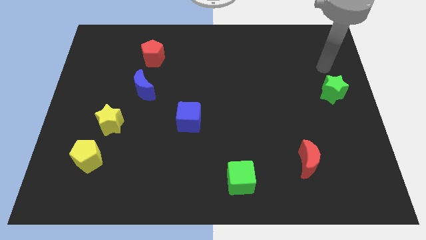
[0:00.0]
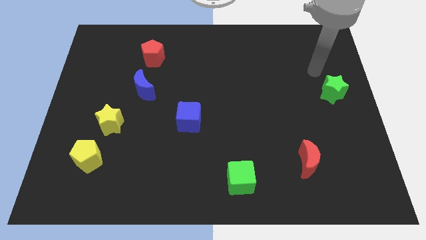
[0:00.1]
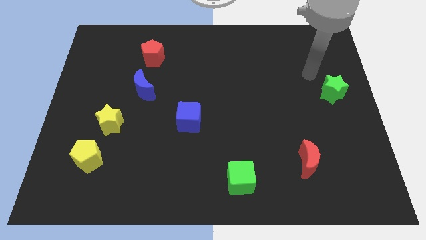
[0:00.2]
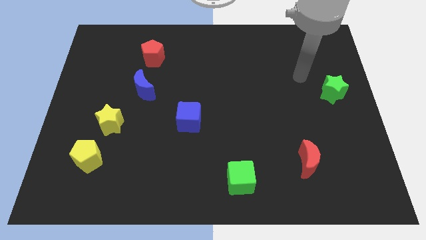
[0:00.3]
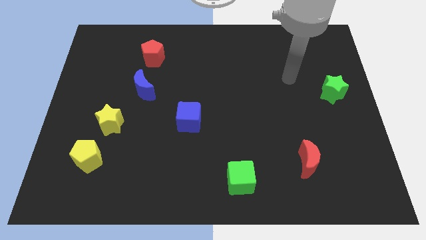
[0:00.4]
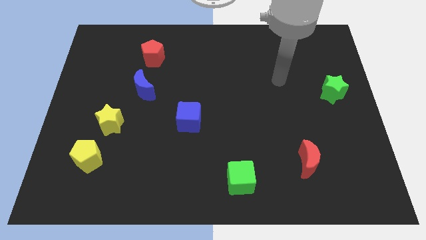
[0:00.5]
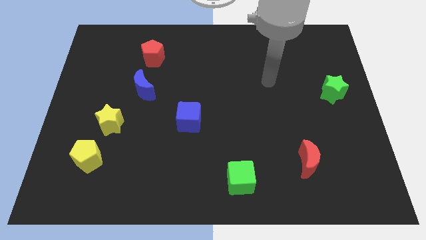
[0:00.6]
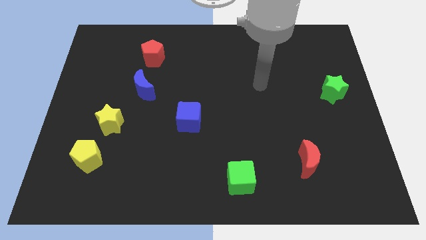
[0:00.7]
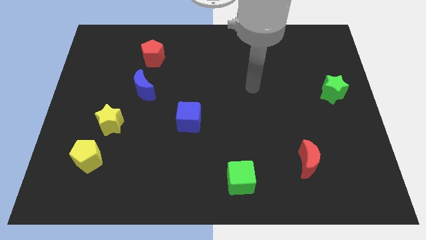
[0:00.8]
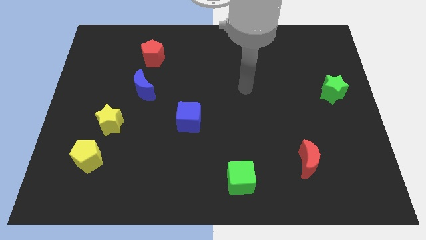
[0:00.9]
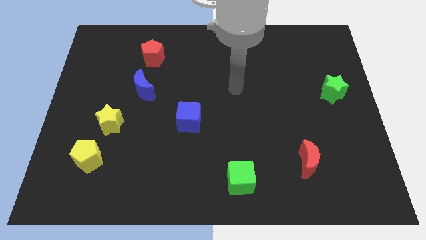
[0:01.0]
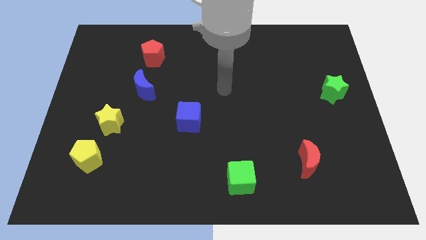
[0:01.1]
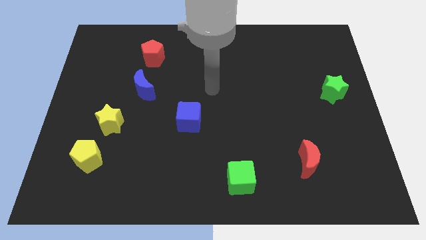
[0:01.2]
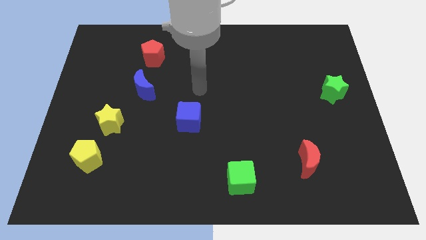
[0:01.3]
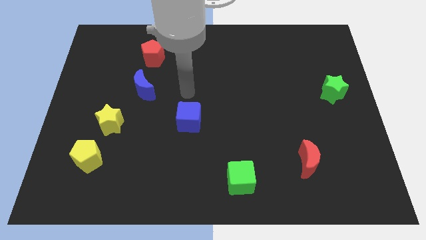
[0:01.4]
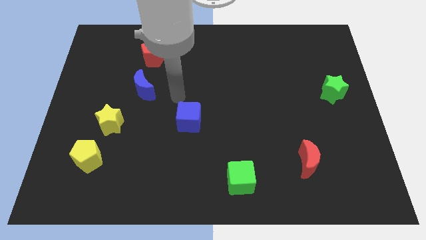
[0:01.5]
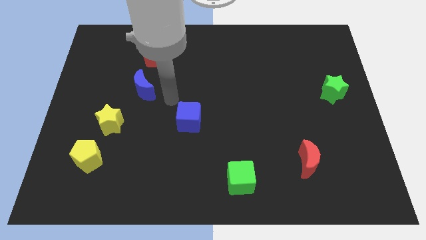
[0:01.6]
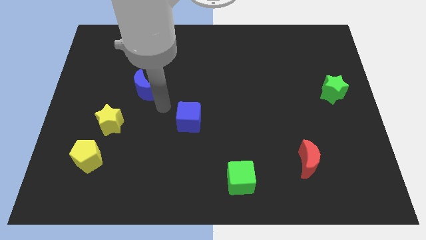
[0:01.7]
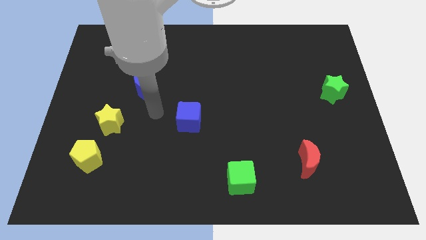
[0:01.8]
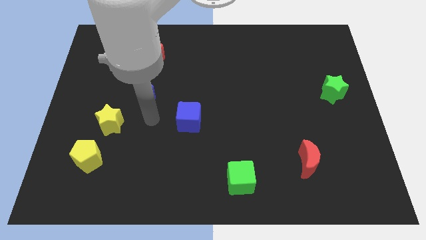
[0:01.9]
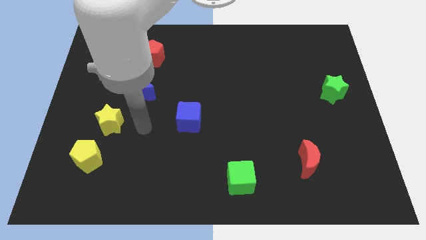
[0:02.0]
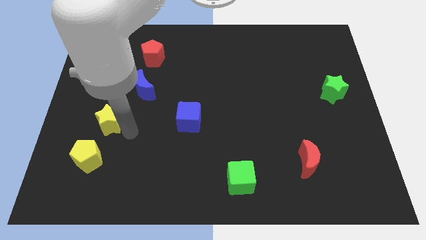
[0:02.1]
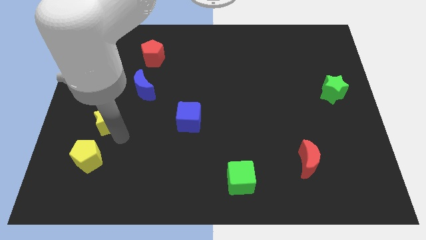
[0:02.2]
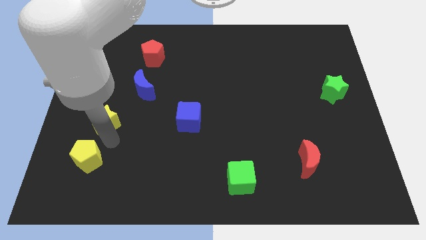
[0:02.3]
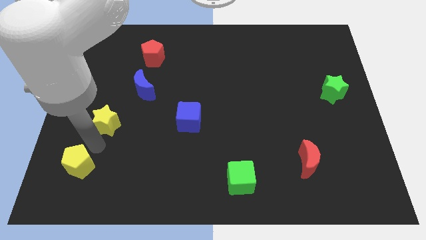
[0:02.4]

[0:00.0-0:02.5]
move the yellow star away from the yellow pentagon

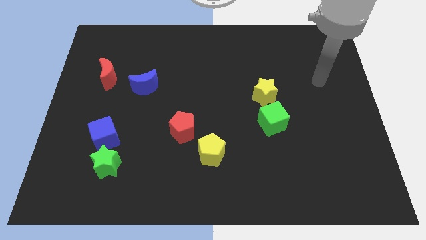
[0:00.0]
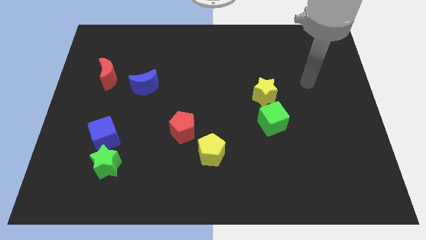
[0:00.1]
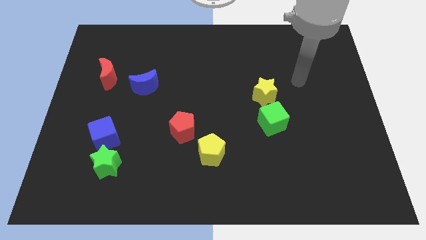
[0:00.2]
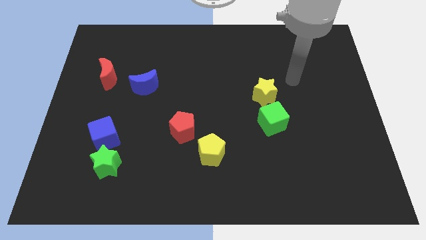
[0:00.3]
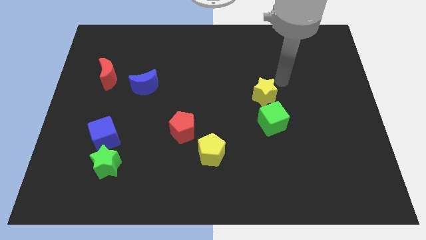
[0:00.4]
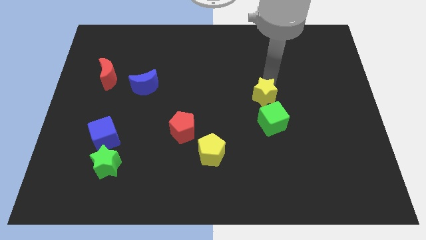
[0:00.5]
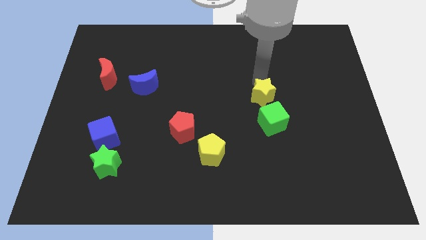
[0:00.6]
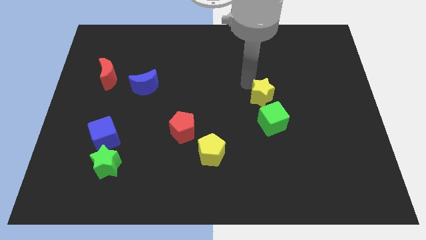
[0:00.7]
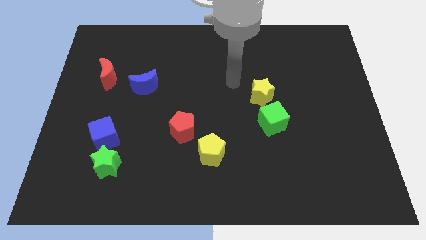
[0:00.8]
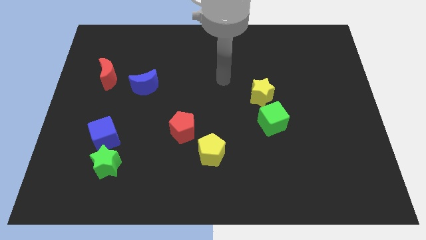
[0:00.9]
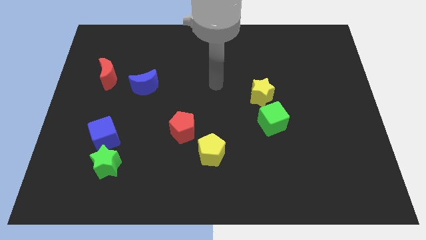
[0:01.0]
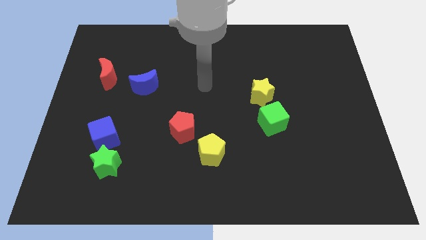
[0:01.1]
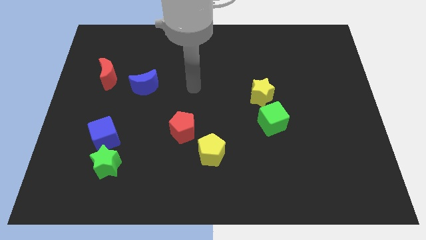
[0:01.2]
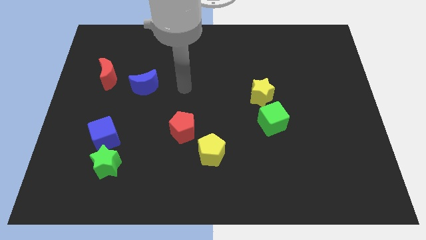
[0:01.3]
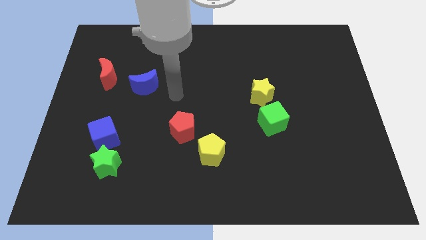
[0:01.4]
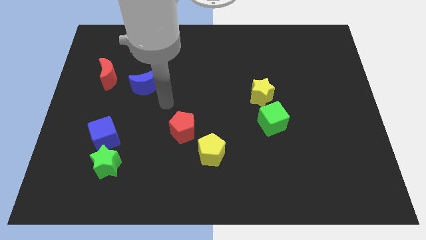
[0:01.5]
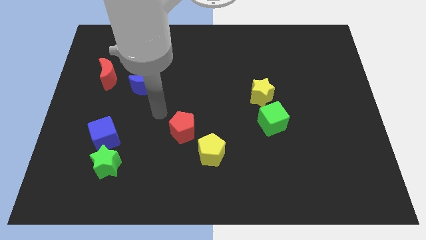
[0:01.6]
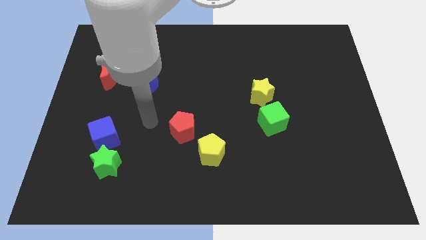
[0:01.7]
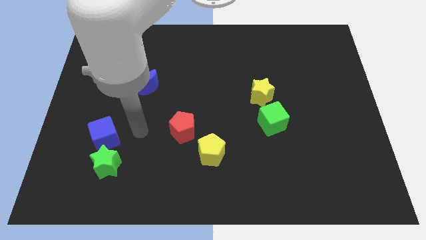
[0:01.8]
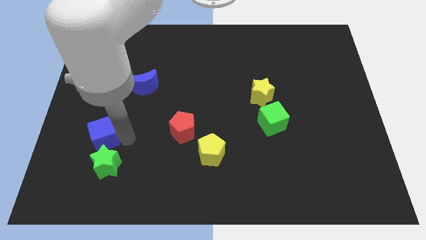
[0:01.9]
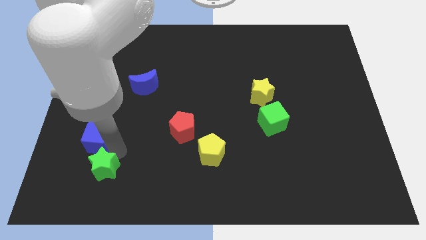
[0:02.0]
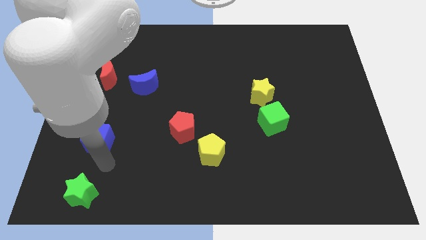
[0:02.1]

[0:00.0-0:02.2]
pull the blue cube apart from the green star

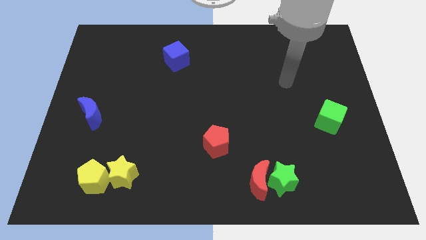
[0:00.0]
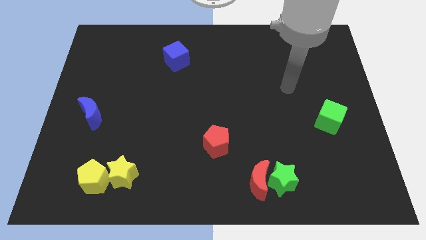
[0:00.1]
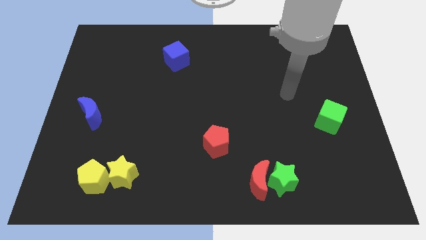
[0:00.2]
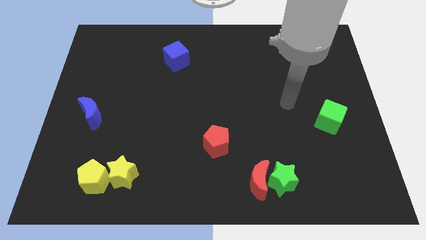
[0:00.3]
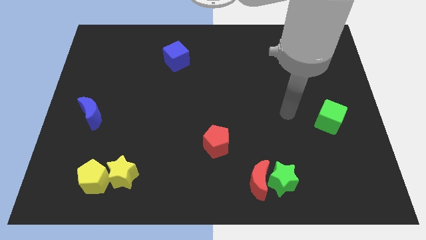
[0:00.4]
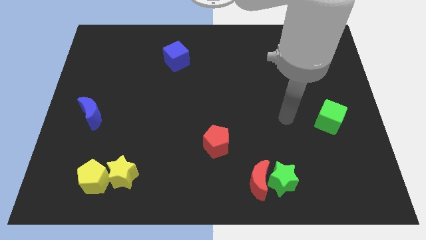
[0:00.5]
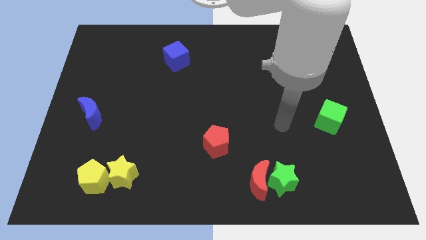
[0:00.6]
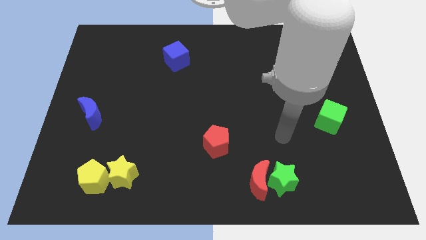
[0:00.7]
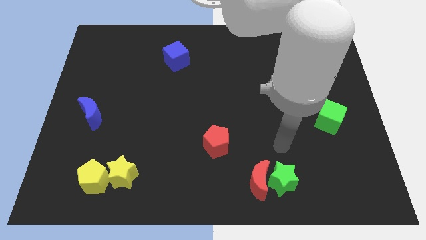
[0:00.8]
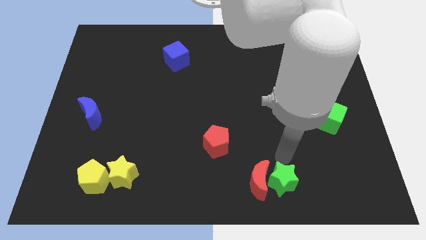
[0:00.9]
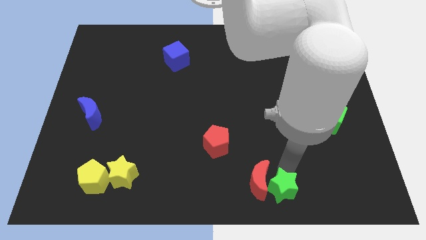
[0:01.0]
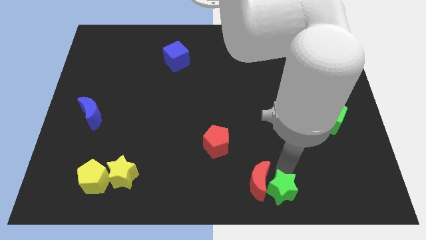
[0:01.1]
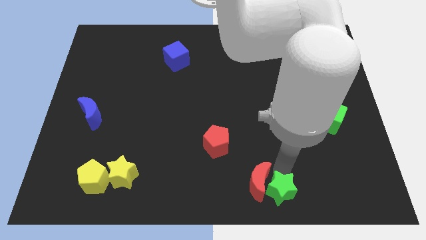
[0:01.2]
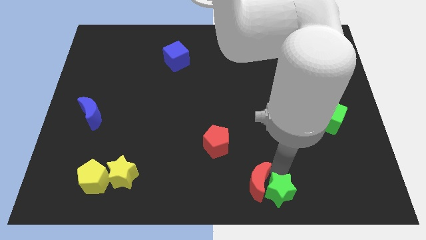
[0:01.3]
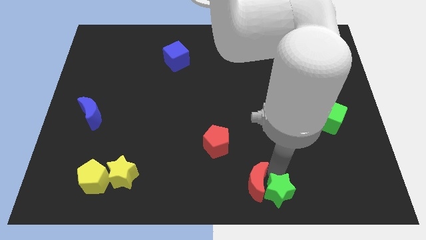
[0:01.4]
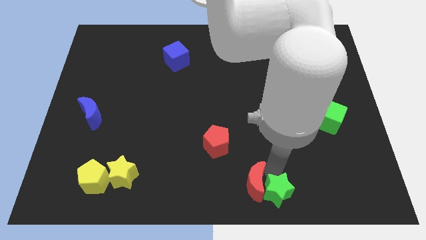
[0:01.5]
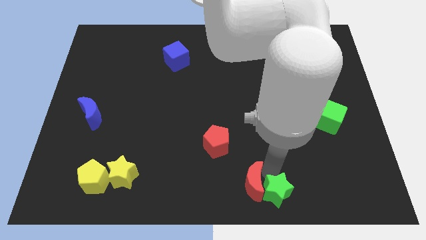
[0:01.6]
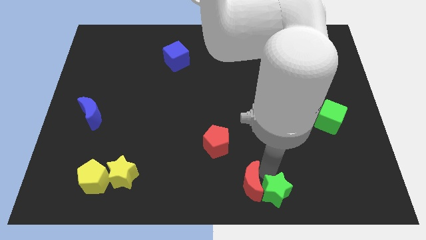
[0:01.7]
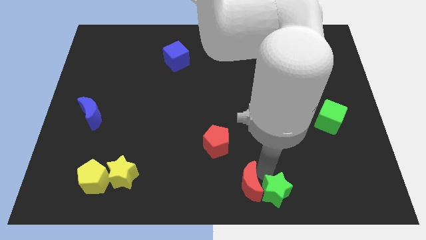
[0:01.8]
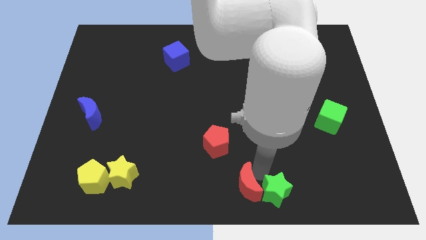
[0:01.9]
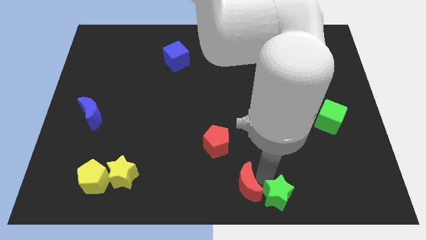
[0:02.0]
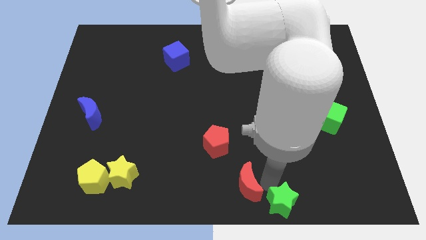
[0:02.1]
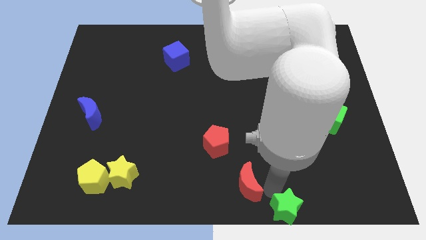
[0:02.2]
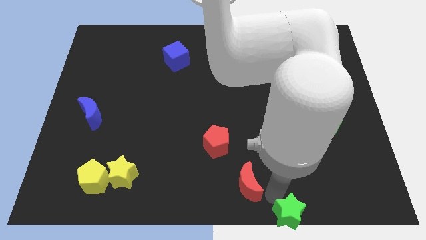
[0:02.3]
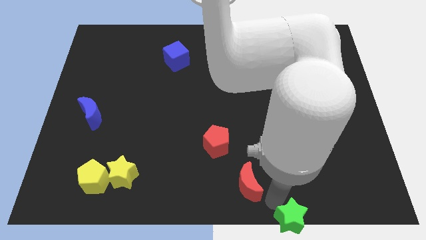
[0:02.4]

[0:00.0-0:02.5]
pull the red moon apart from the green star

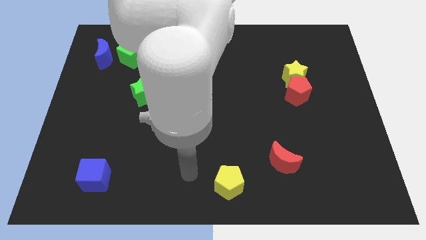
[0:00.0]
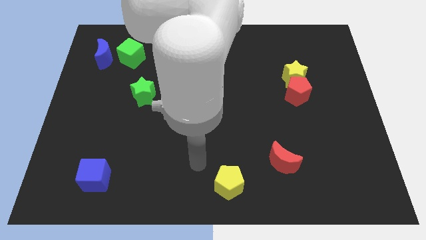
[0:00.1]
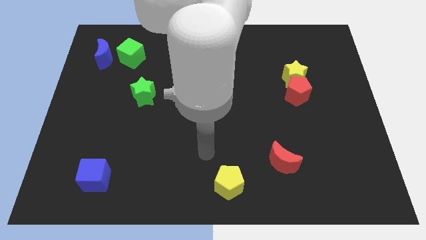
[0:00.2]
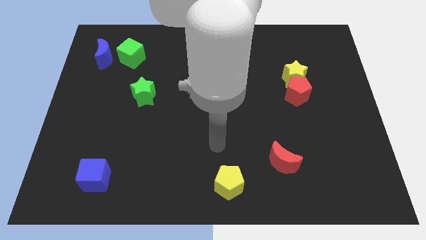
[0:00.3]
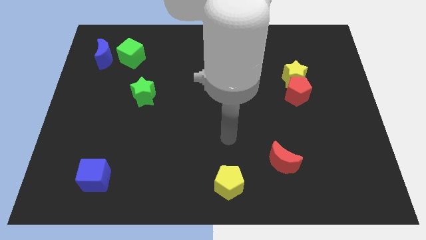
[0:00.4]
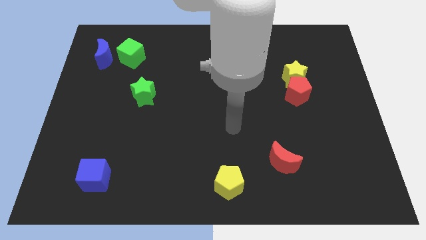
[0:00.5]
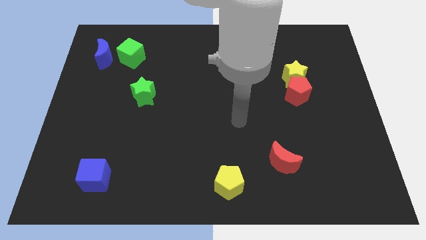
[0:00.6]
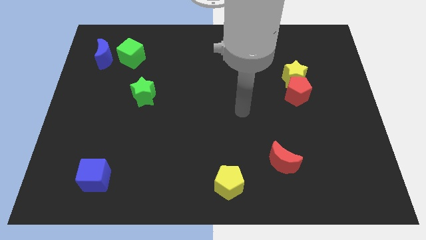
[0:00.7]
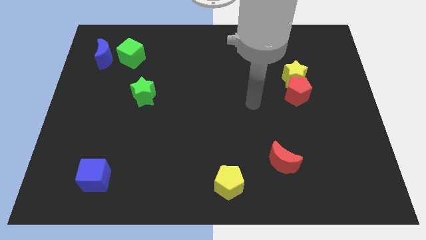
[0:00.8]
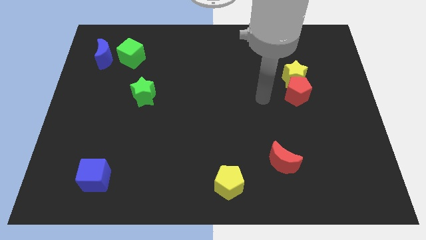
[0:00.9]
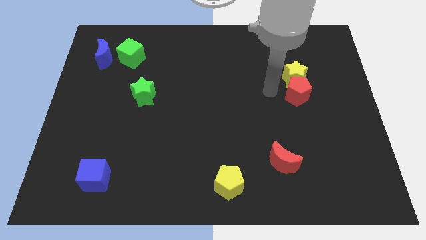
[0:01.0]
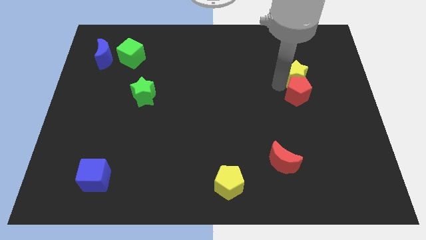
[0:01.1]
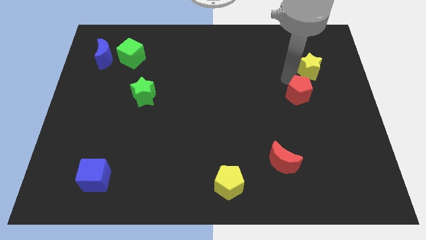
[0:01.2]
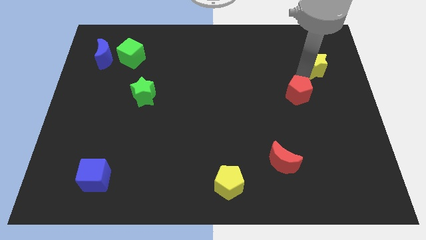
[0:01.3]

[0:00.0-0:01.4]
move the red pentagon away from the yellow star

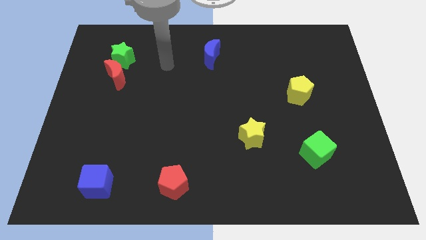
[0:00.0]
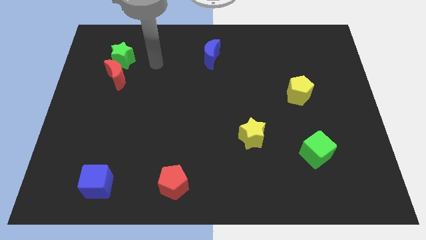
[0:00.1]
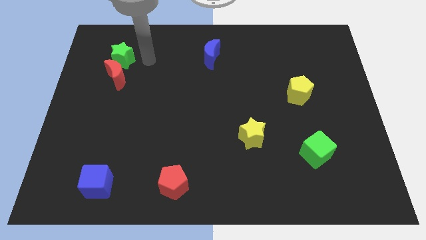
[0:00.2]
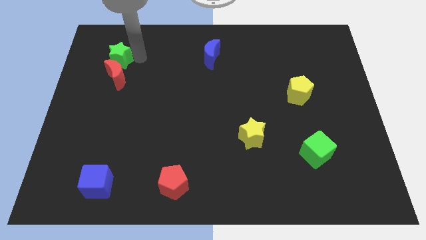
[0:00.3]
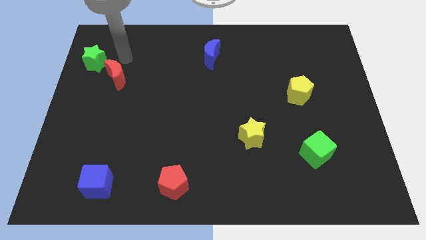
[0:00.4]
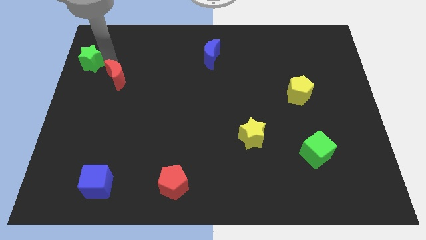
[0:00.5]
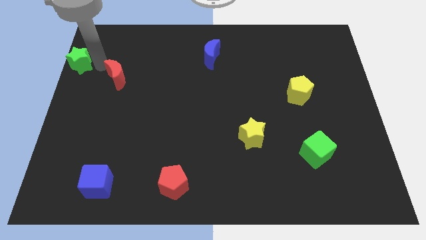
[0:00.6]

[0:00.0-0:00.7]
separate the red moon from the green star

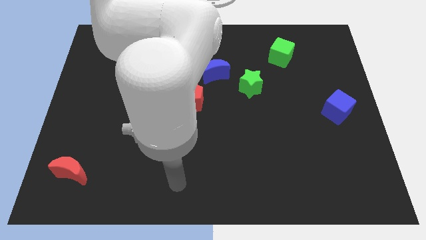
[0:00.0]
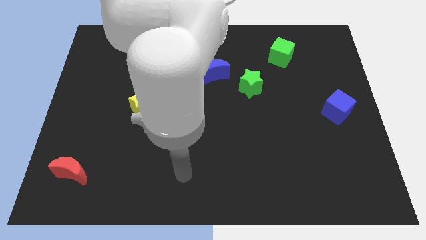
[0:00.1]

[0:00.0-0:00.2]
separate the green star from the blue moon
